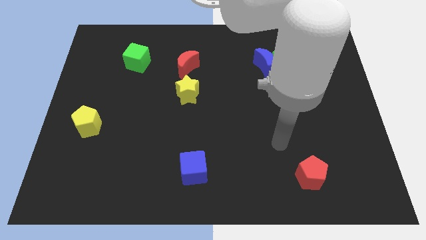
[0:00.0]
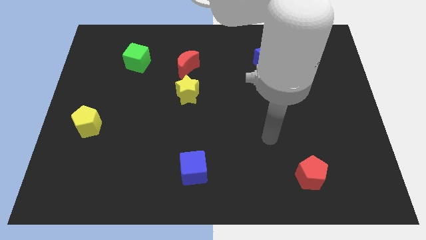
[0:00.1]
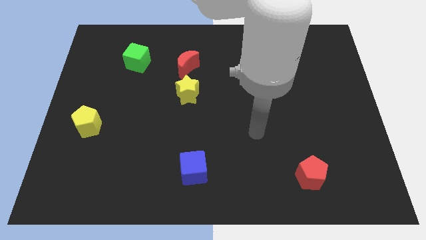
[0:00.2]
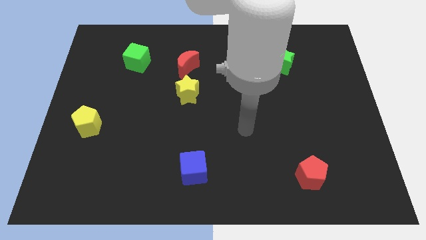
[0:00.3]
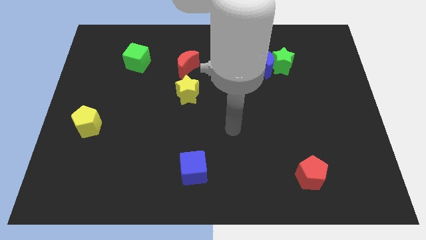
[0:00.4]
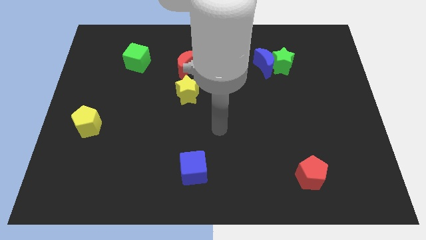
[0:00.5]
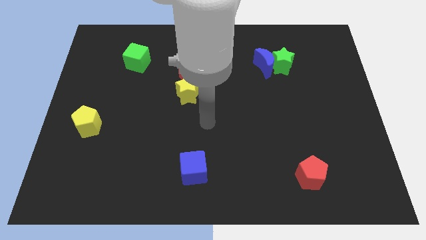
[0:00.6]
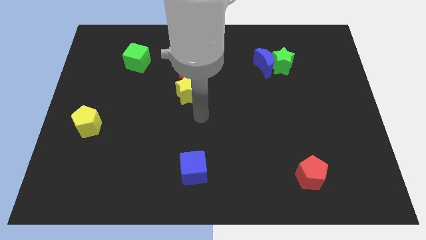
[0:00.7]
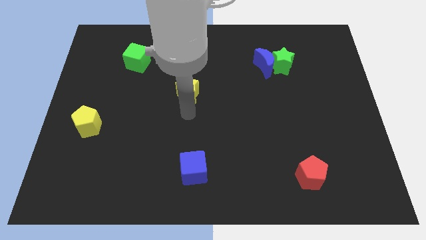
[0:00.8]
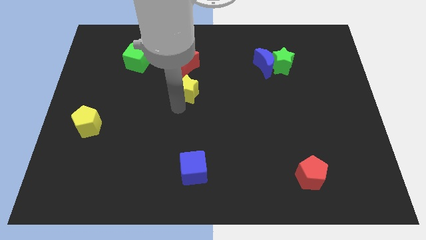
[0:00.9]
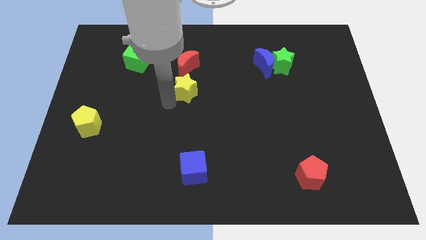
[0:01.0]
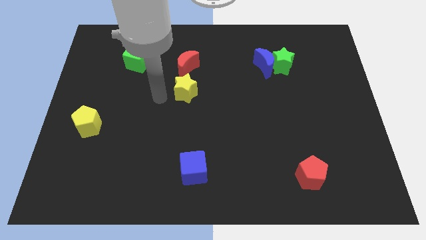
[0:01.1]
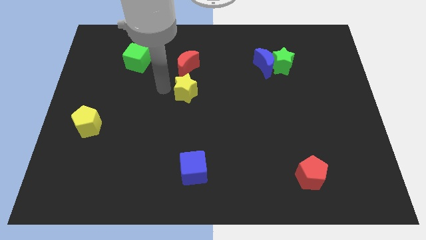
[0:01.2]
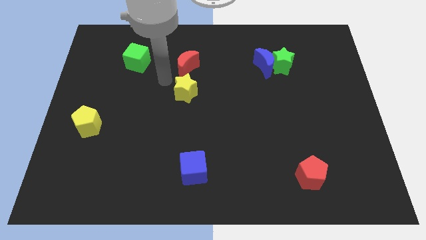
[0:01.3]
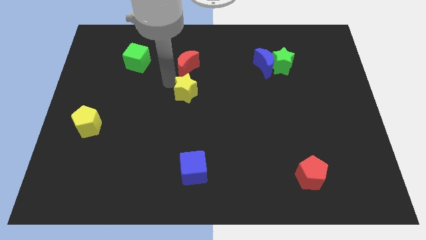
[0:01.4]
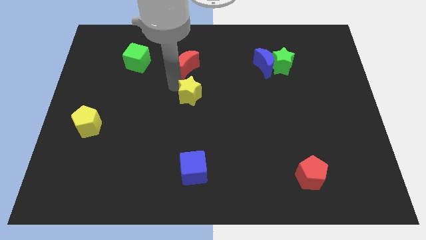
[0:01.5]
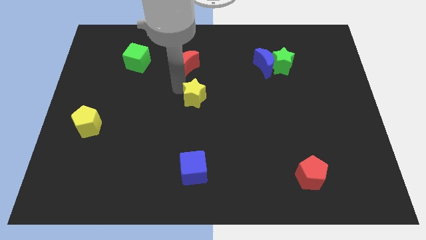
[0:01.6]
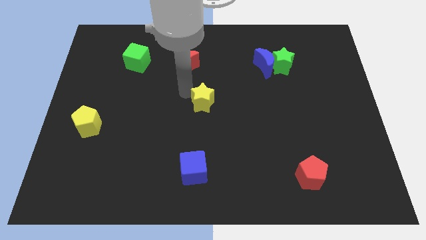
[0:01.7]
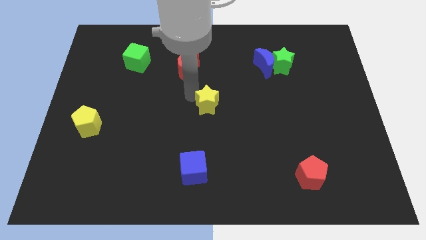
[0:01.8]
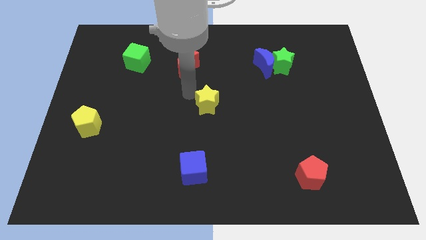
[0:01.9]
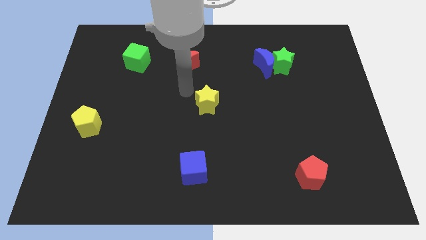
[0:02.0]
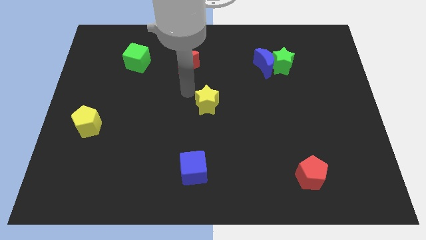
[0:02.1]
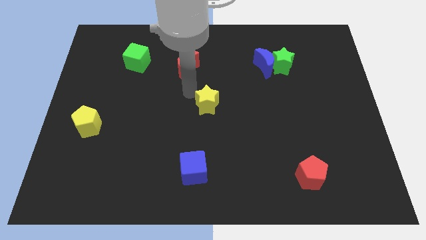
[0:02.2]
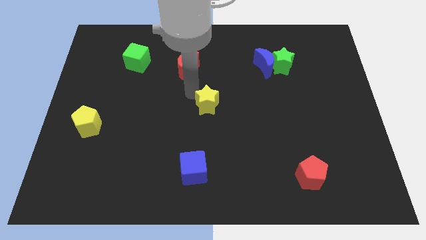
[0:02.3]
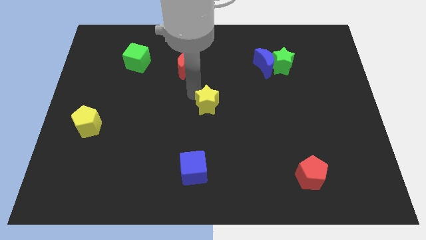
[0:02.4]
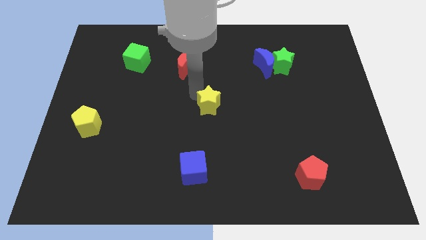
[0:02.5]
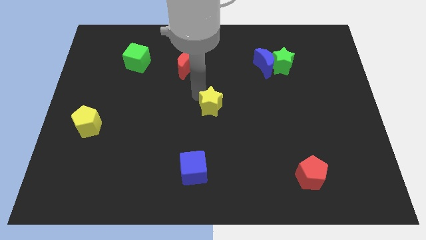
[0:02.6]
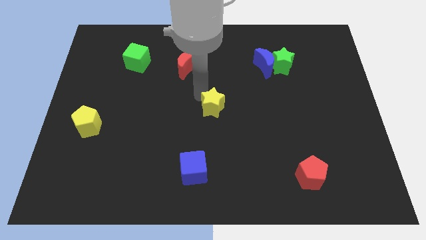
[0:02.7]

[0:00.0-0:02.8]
slightly push the yellow star downwards and then to the right

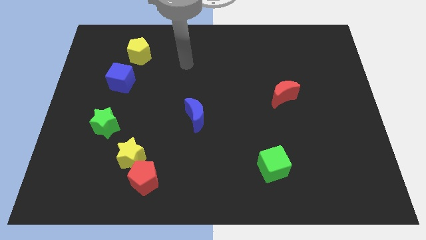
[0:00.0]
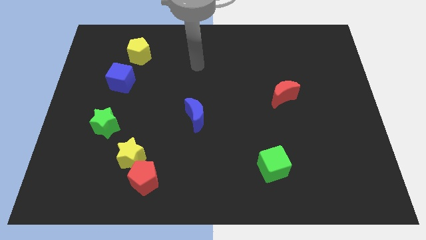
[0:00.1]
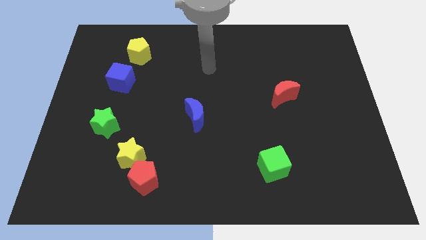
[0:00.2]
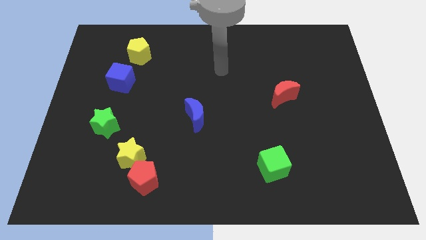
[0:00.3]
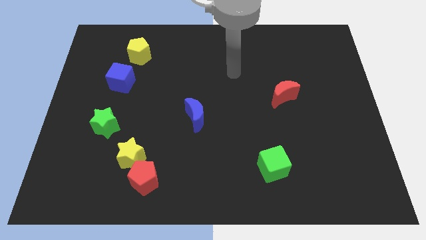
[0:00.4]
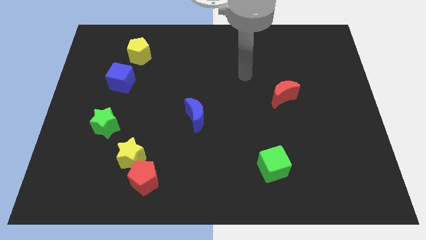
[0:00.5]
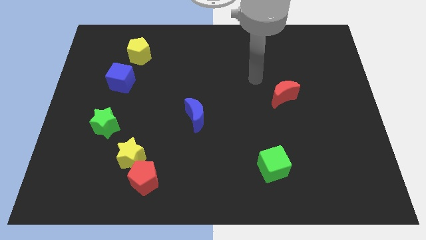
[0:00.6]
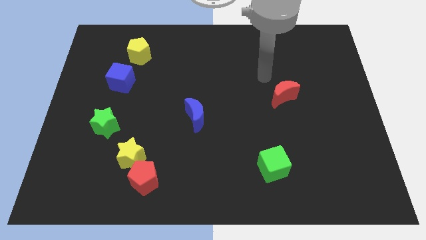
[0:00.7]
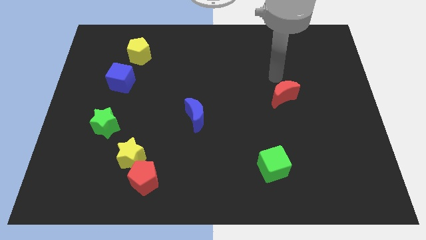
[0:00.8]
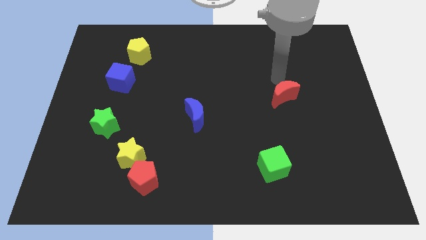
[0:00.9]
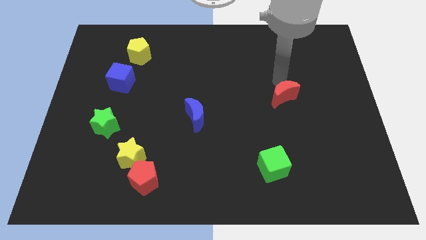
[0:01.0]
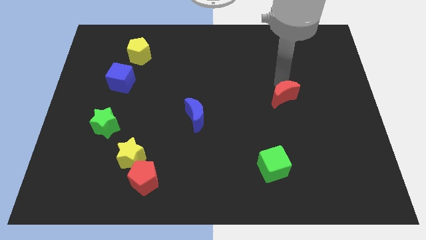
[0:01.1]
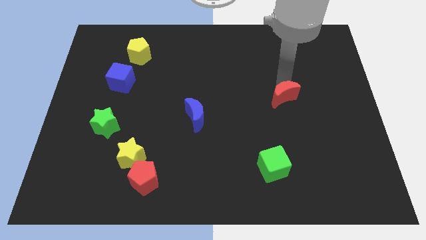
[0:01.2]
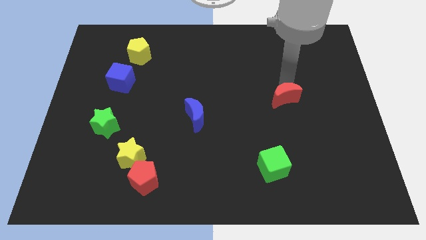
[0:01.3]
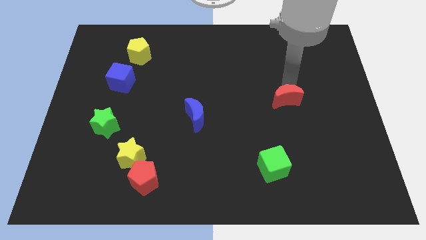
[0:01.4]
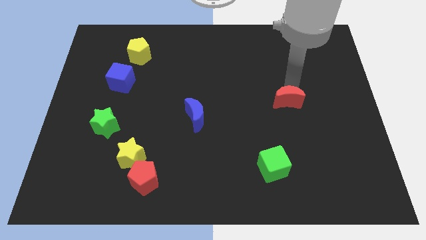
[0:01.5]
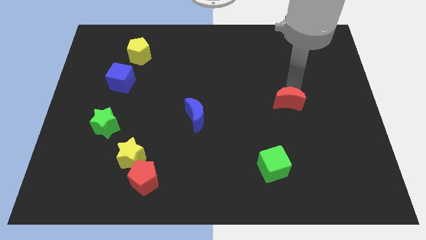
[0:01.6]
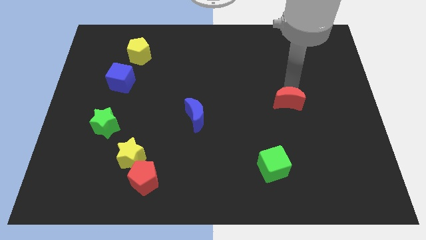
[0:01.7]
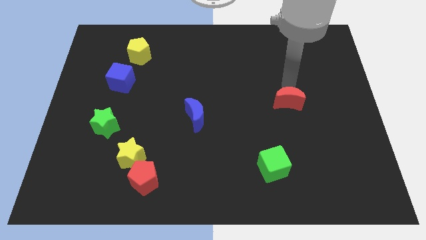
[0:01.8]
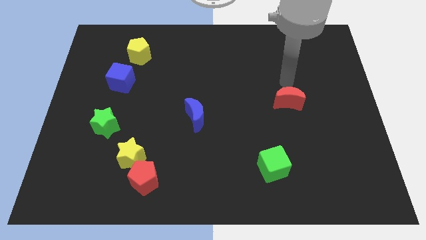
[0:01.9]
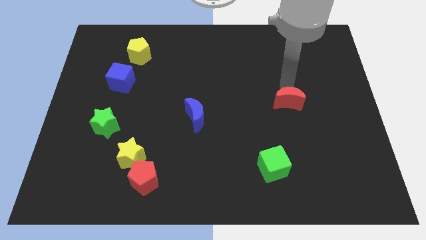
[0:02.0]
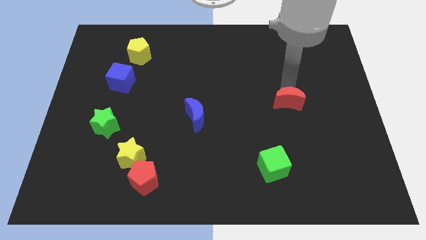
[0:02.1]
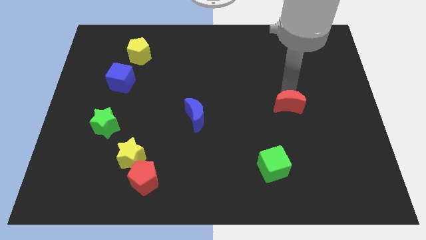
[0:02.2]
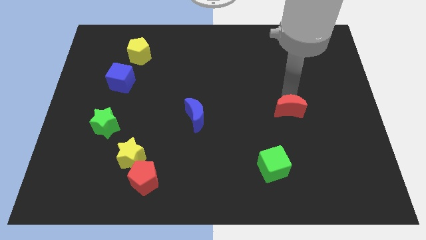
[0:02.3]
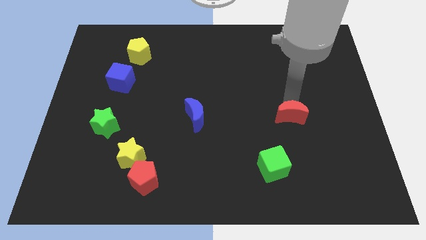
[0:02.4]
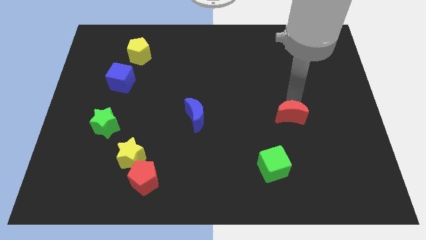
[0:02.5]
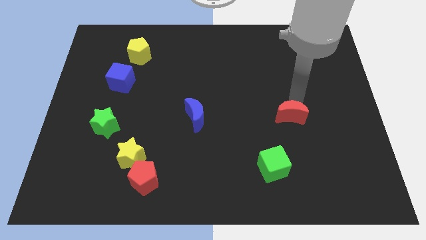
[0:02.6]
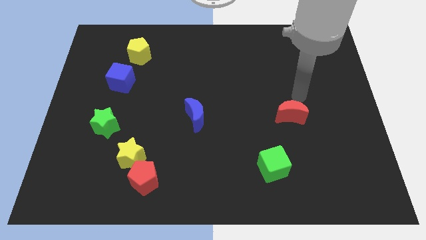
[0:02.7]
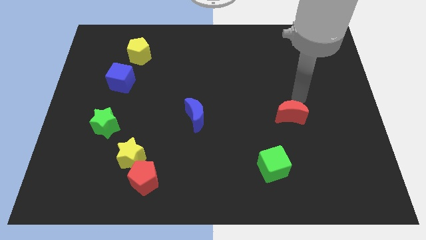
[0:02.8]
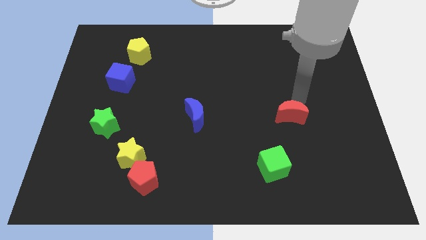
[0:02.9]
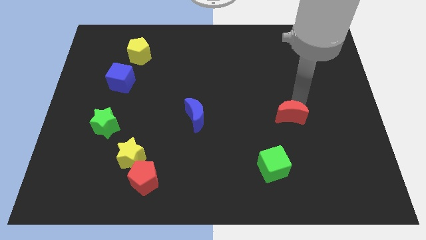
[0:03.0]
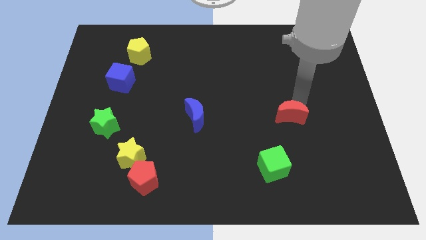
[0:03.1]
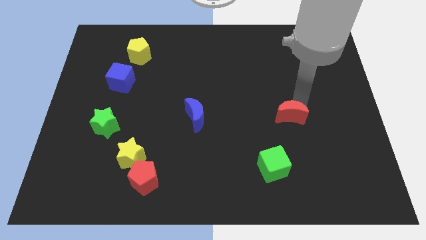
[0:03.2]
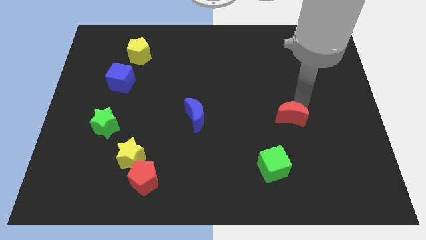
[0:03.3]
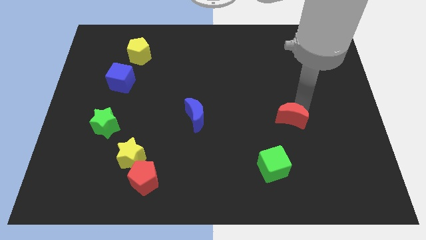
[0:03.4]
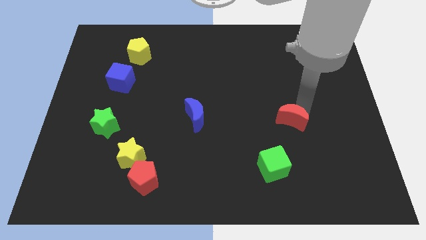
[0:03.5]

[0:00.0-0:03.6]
slide the red moon downwards a bit

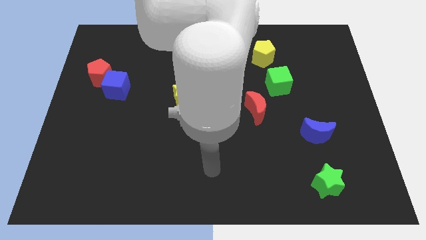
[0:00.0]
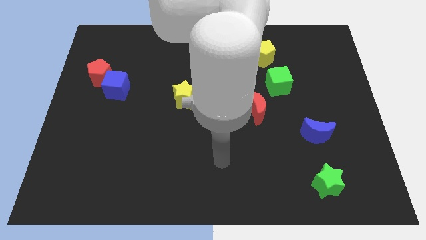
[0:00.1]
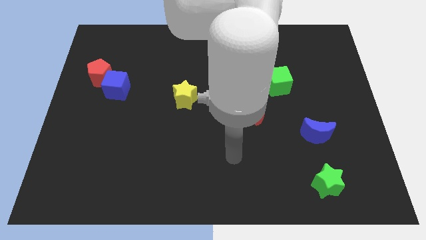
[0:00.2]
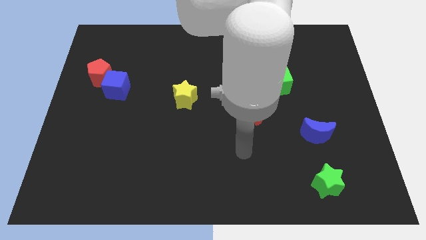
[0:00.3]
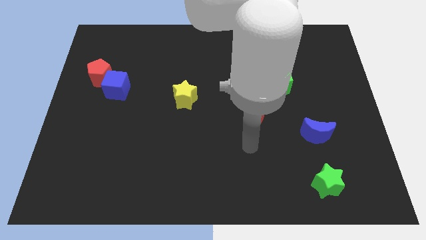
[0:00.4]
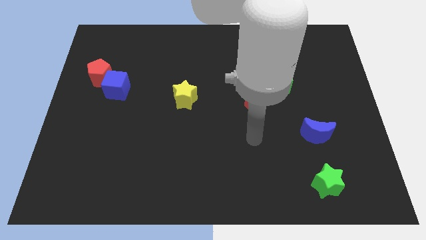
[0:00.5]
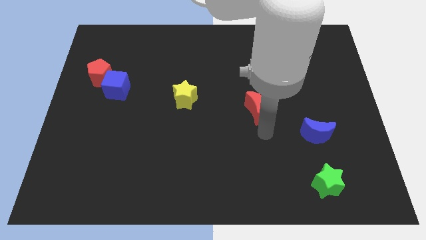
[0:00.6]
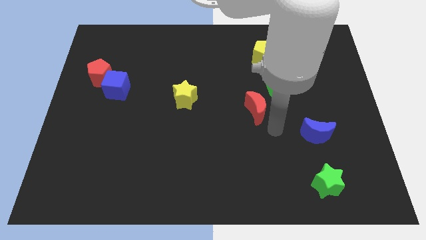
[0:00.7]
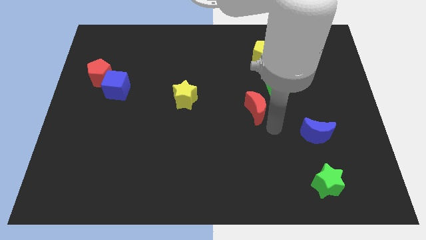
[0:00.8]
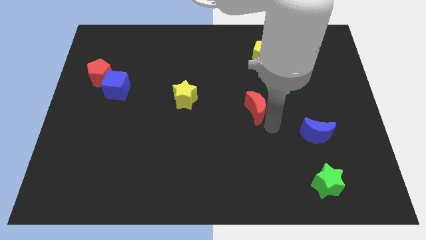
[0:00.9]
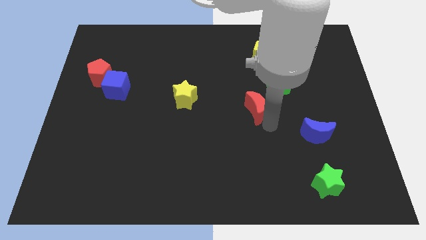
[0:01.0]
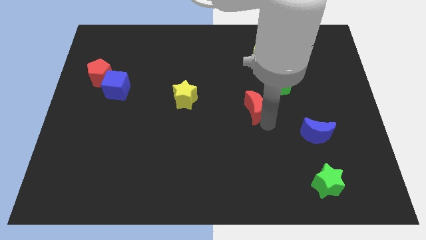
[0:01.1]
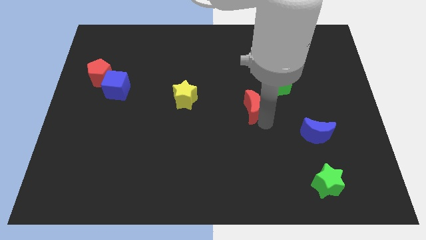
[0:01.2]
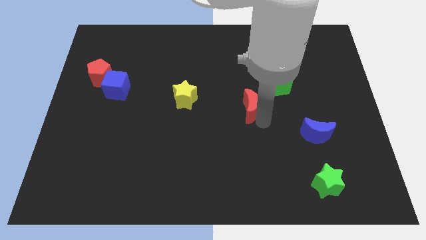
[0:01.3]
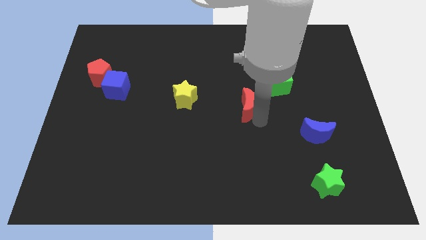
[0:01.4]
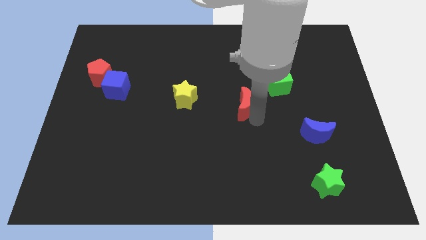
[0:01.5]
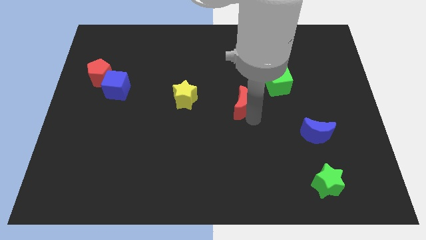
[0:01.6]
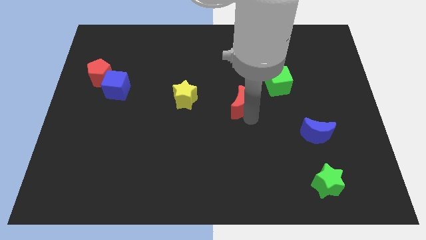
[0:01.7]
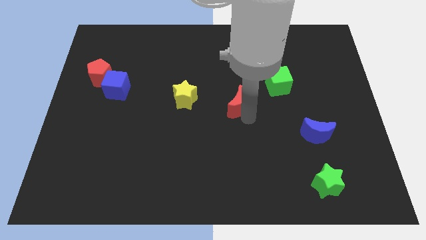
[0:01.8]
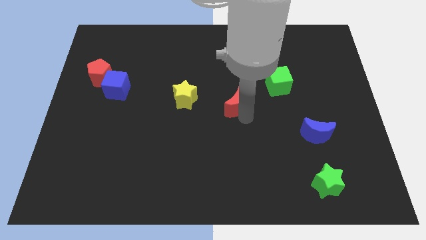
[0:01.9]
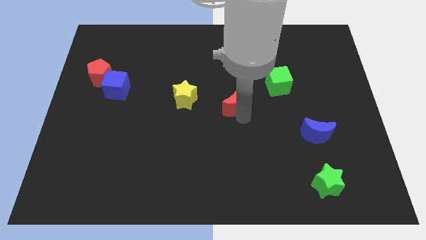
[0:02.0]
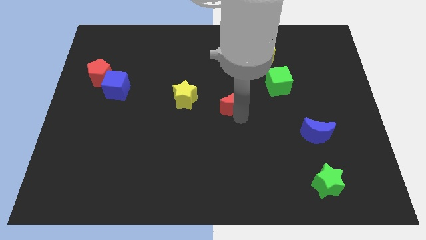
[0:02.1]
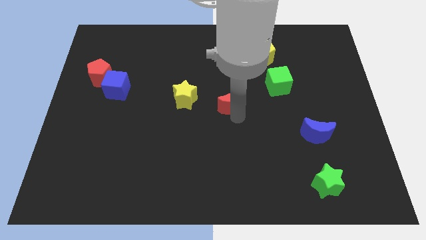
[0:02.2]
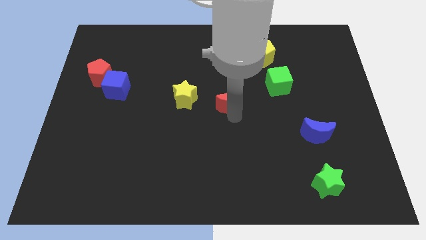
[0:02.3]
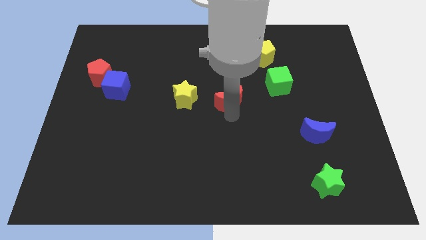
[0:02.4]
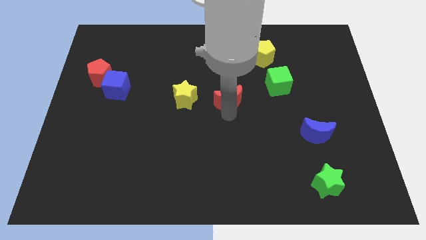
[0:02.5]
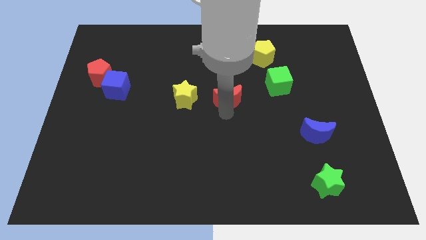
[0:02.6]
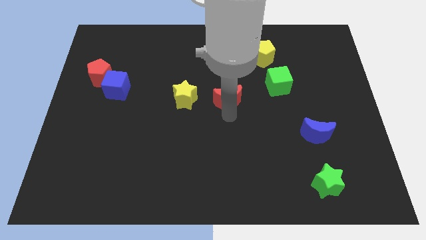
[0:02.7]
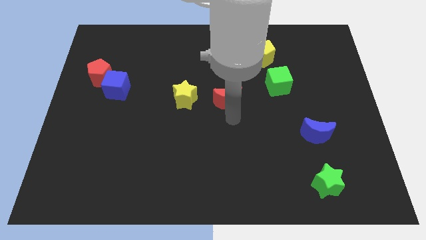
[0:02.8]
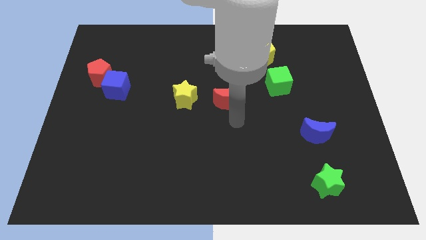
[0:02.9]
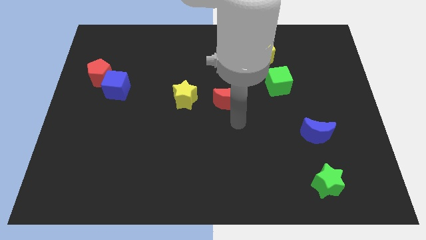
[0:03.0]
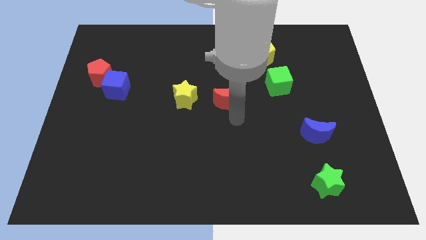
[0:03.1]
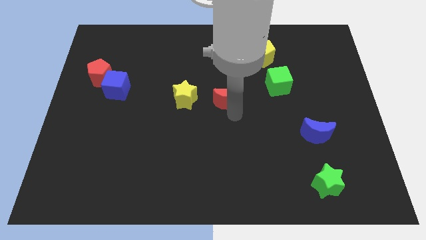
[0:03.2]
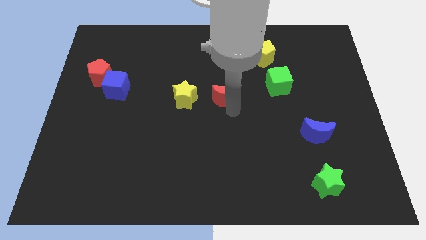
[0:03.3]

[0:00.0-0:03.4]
move the red moon diagonally upwards and left somewhat
